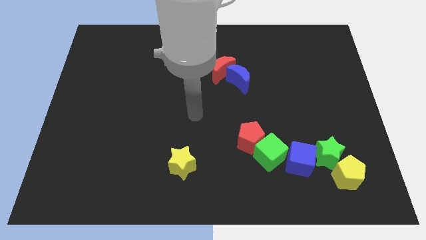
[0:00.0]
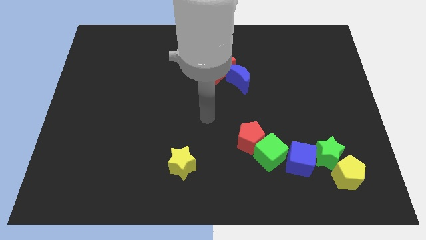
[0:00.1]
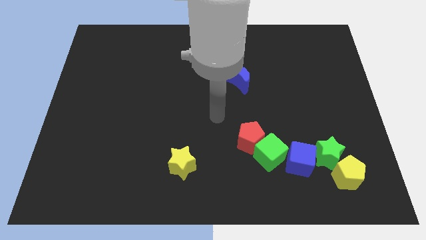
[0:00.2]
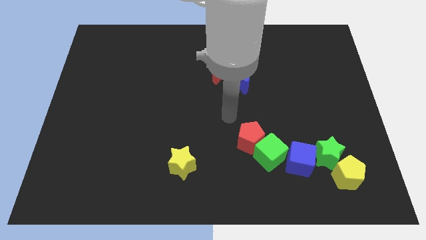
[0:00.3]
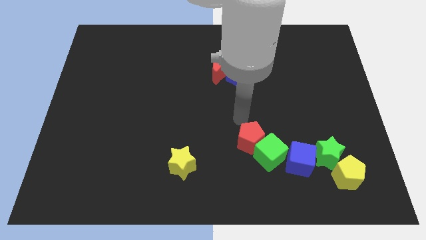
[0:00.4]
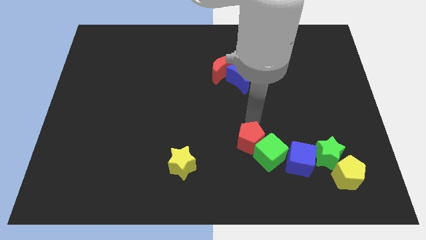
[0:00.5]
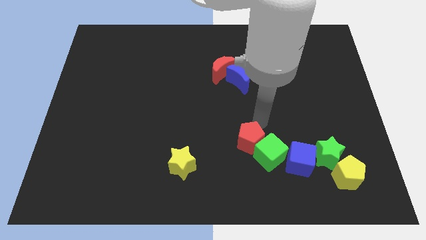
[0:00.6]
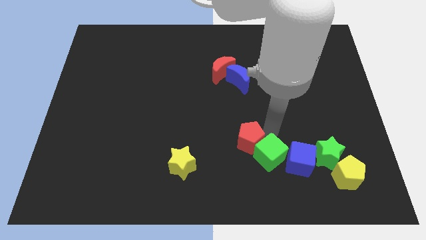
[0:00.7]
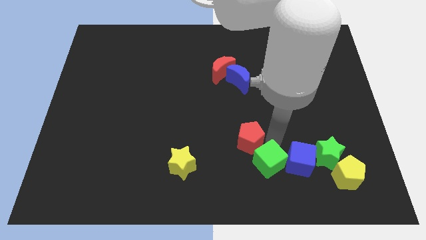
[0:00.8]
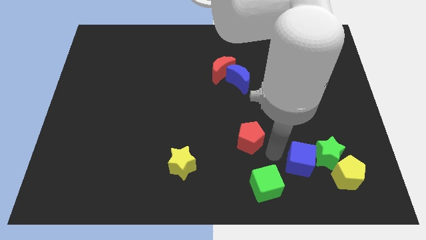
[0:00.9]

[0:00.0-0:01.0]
pull the red pentagon apart from the green cube

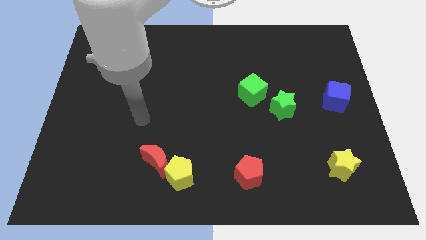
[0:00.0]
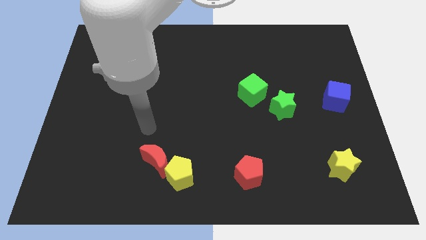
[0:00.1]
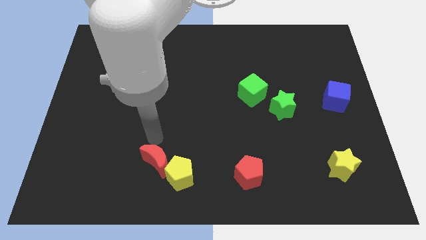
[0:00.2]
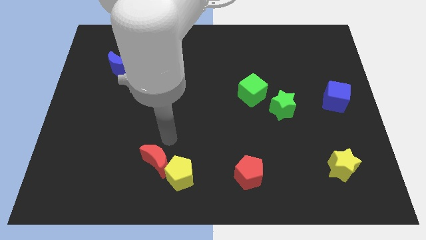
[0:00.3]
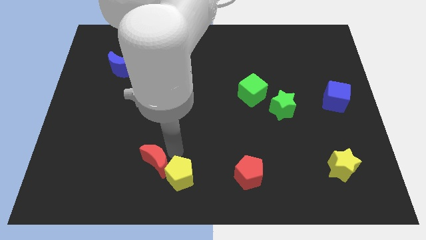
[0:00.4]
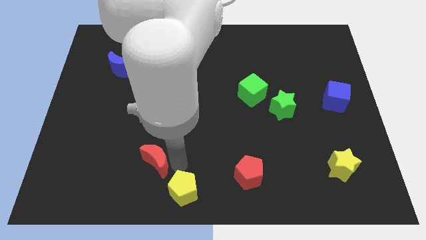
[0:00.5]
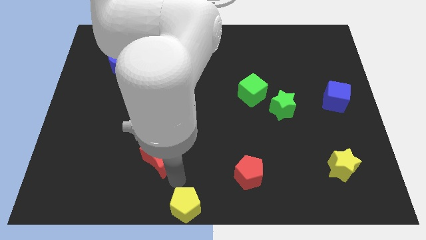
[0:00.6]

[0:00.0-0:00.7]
separate the red moon from the yellow pentagon

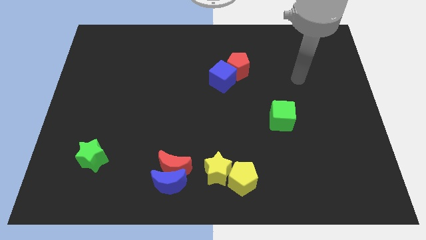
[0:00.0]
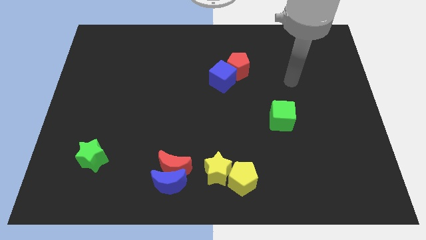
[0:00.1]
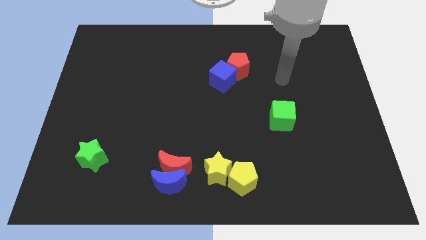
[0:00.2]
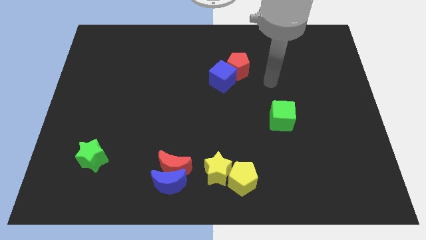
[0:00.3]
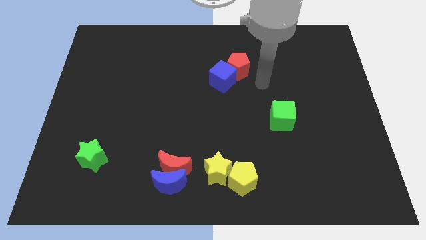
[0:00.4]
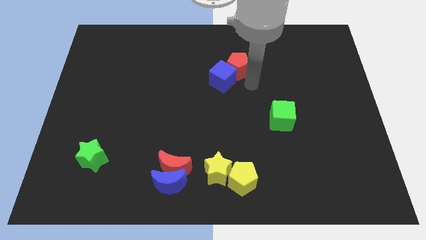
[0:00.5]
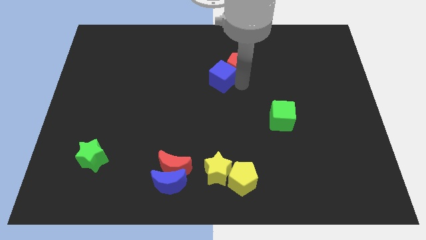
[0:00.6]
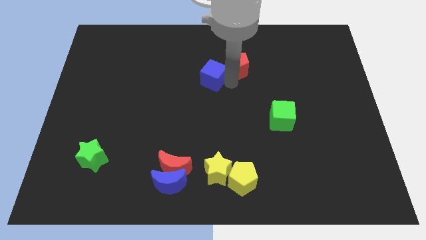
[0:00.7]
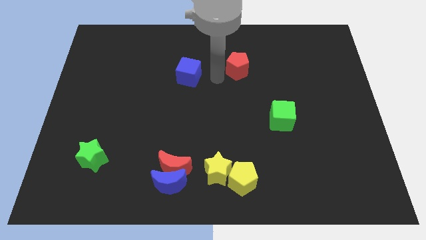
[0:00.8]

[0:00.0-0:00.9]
move the red pentagon away from the blue cube

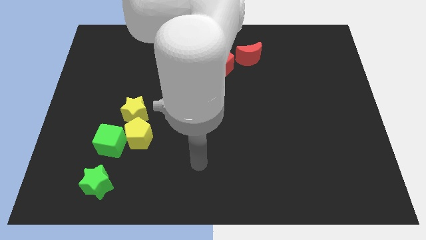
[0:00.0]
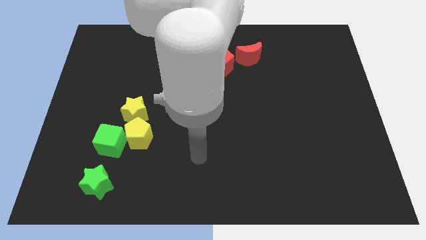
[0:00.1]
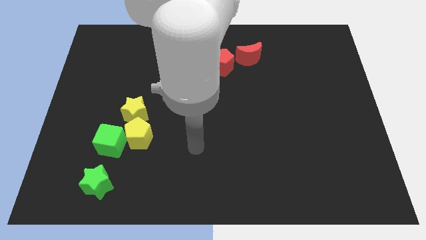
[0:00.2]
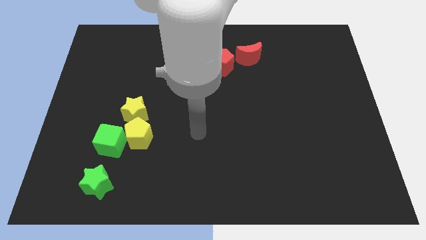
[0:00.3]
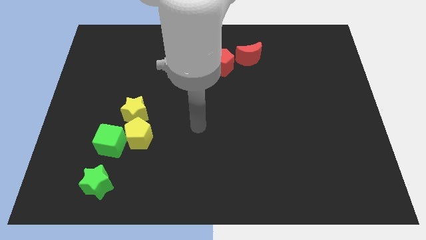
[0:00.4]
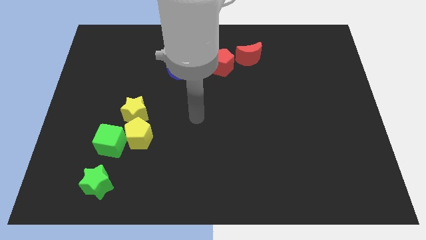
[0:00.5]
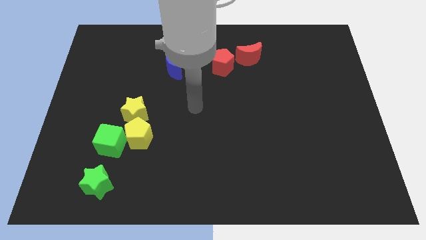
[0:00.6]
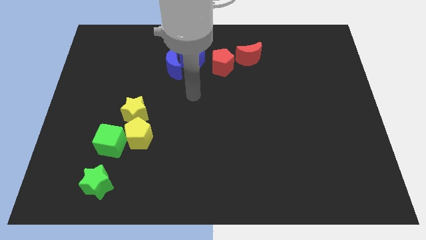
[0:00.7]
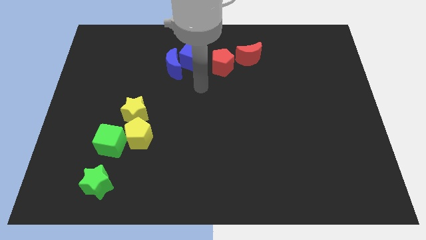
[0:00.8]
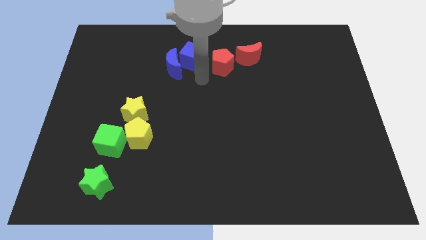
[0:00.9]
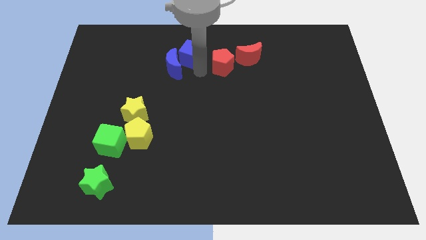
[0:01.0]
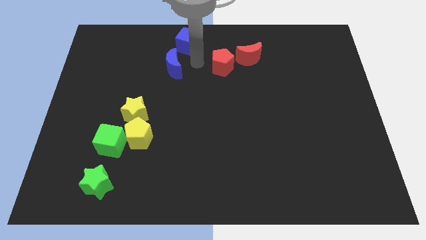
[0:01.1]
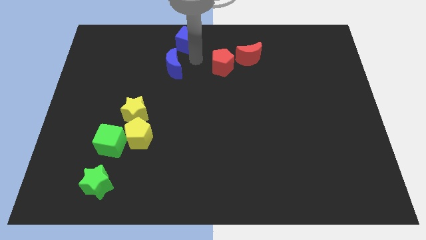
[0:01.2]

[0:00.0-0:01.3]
separate the blue moon from the blue cube

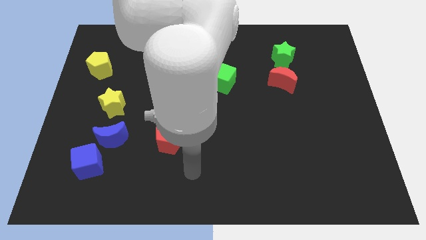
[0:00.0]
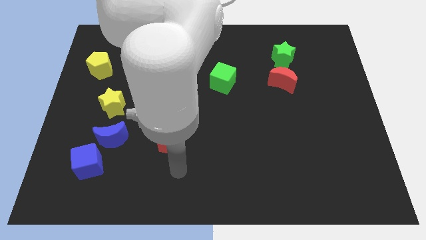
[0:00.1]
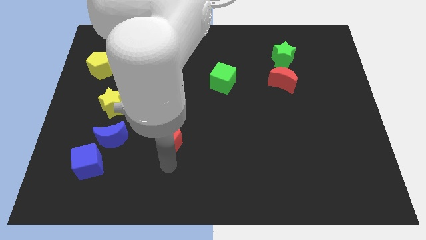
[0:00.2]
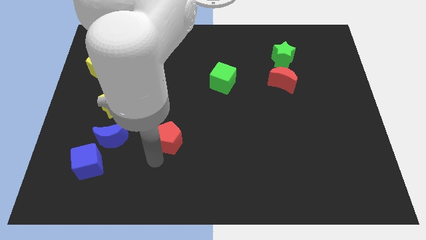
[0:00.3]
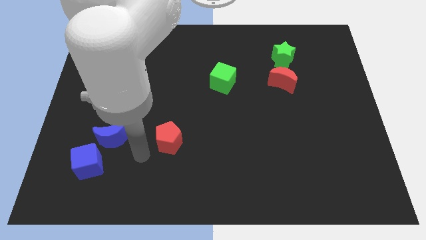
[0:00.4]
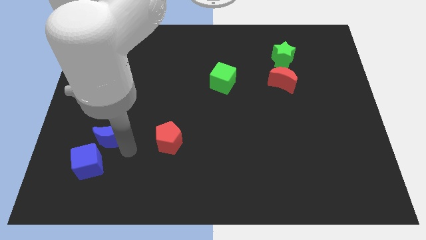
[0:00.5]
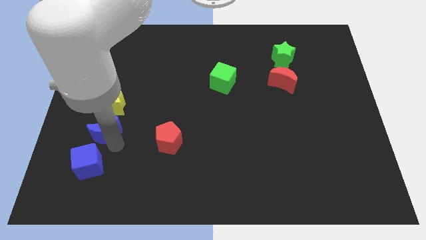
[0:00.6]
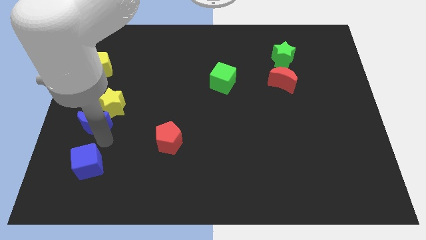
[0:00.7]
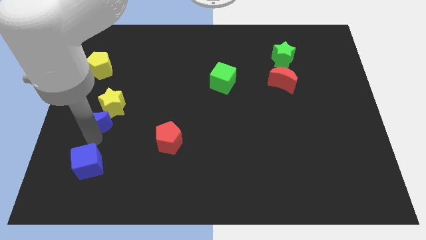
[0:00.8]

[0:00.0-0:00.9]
move the blue cube away from the blue moon

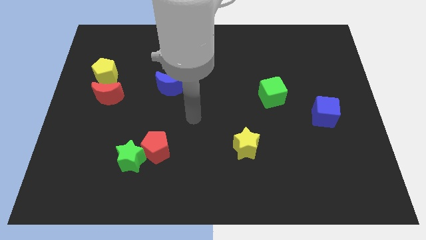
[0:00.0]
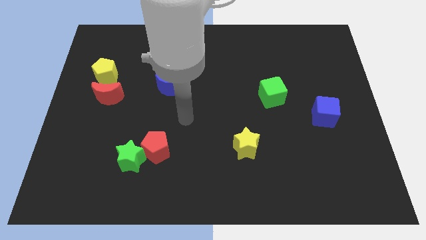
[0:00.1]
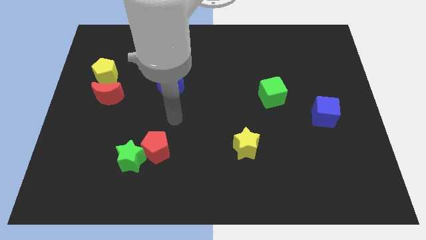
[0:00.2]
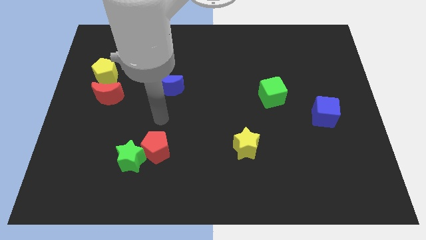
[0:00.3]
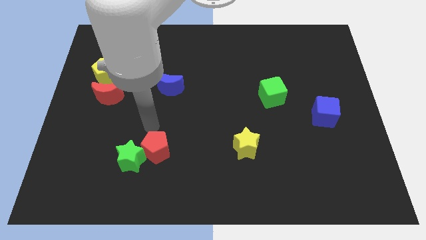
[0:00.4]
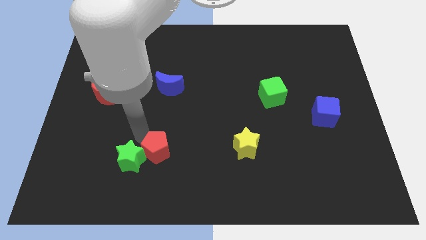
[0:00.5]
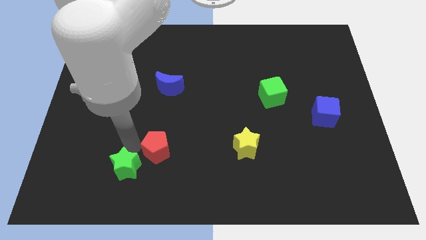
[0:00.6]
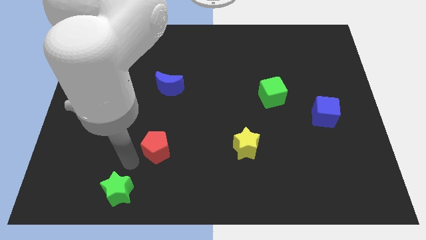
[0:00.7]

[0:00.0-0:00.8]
move the red pentagon away from the green star

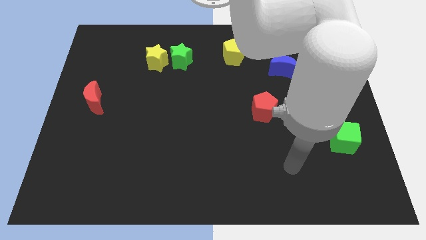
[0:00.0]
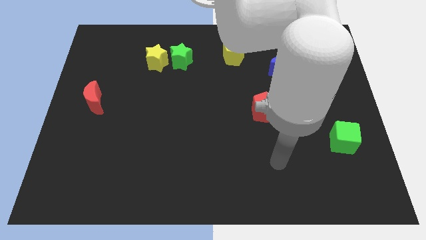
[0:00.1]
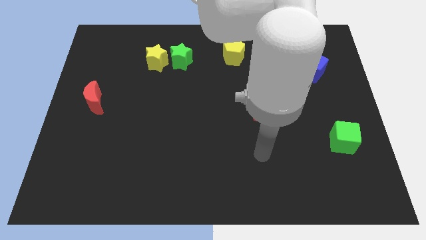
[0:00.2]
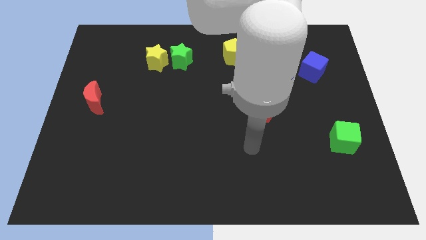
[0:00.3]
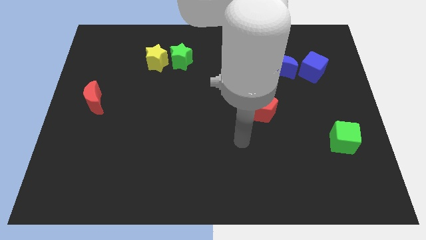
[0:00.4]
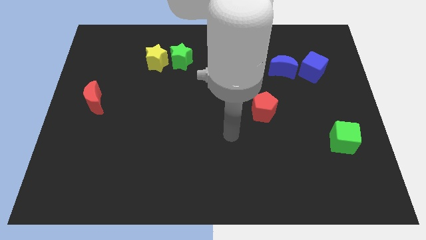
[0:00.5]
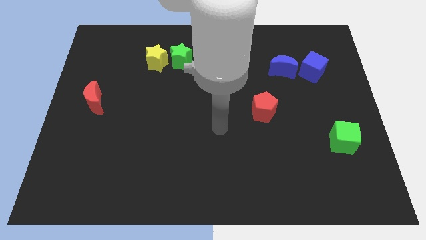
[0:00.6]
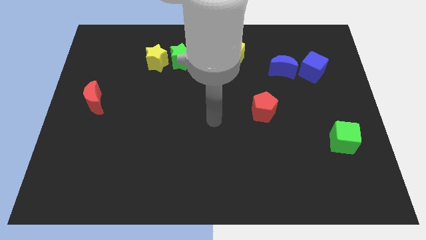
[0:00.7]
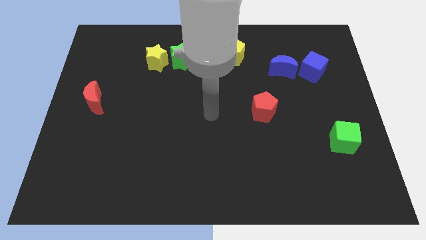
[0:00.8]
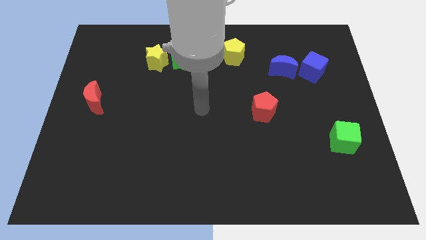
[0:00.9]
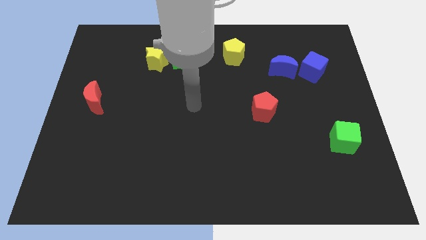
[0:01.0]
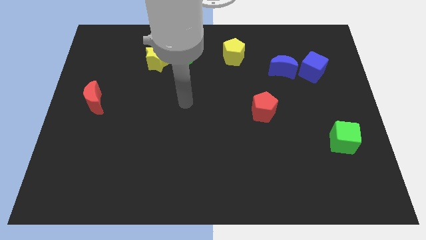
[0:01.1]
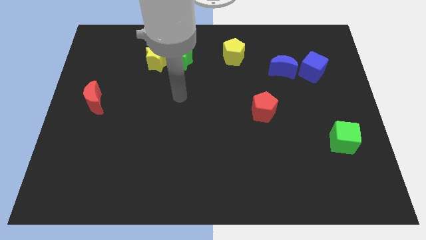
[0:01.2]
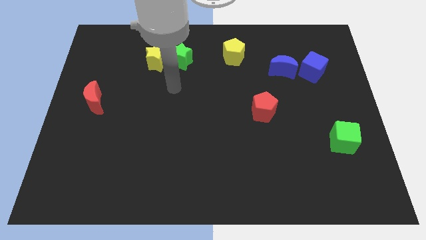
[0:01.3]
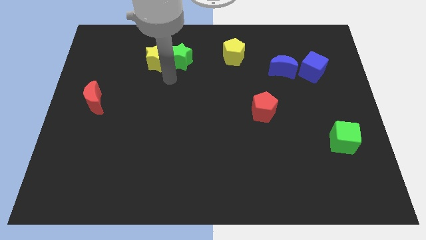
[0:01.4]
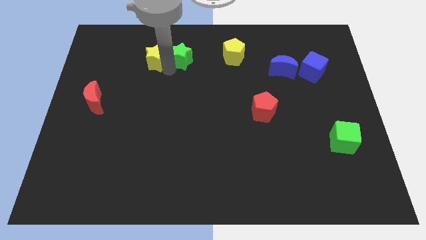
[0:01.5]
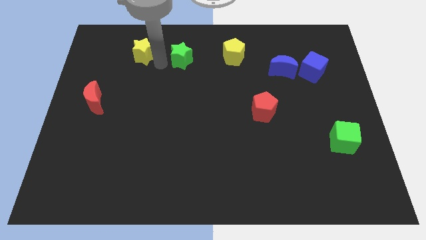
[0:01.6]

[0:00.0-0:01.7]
pull the green star apart from the yellow star

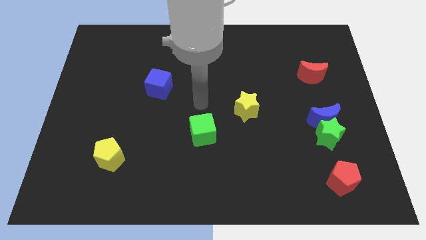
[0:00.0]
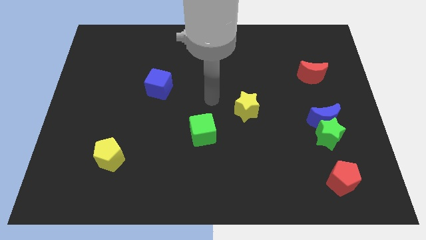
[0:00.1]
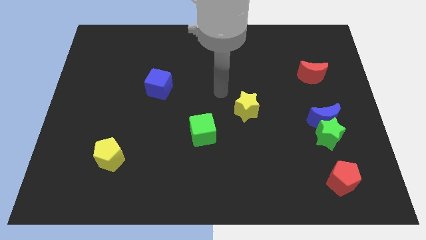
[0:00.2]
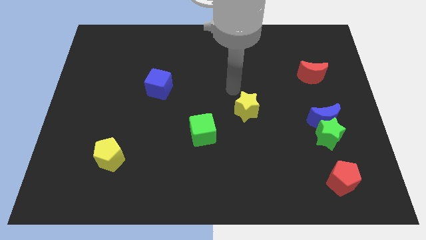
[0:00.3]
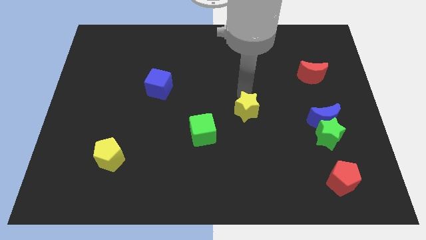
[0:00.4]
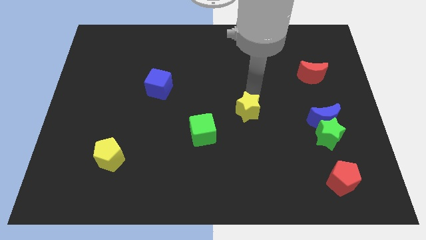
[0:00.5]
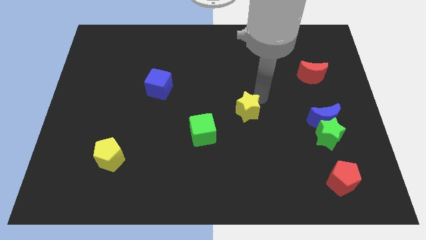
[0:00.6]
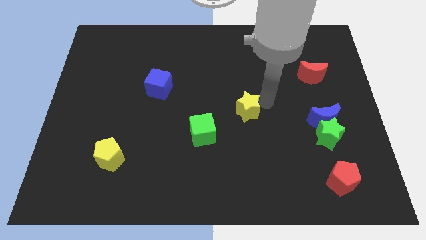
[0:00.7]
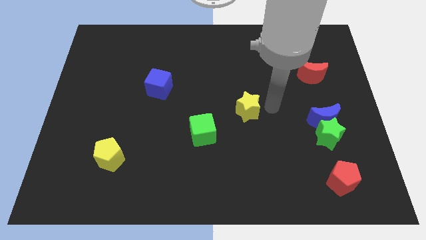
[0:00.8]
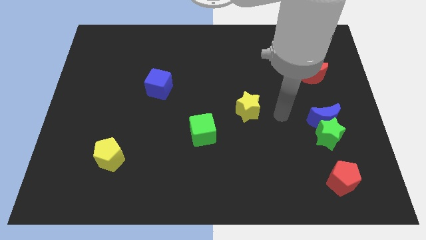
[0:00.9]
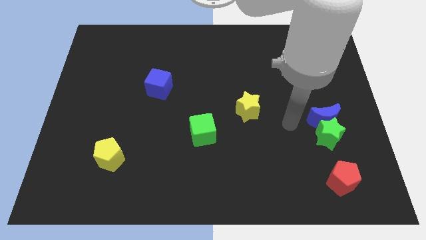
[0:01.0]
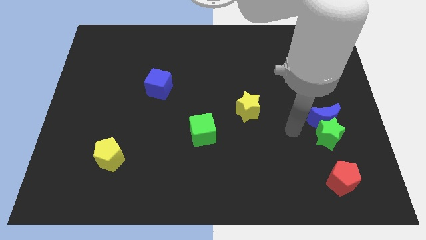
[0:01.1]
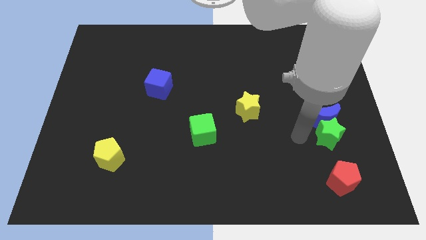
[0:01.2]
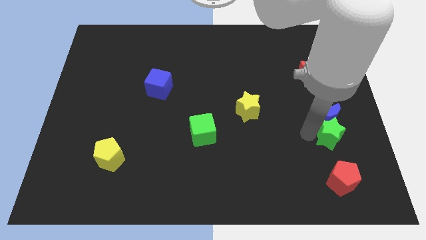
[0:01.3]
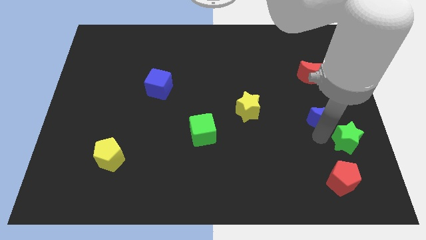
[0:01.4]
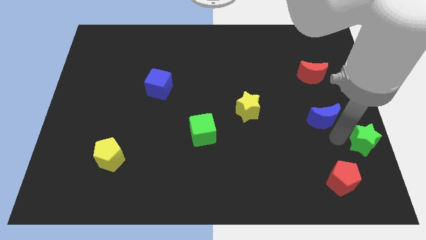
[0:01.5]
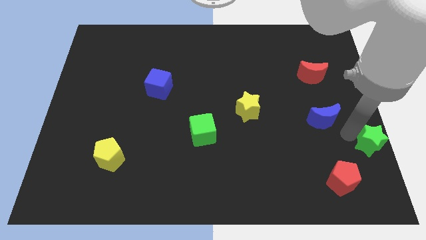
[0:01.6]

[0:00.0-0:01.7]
separate the blue moon from the green star

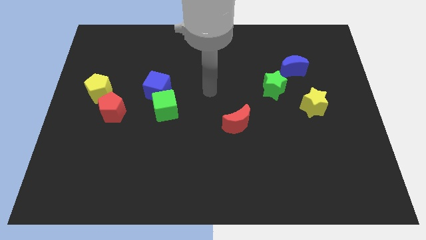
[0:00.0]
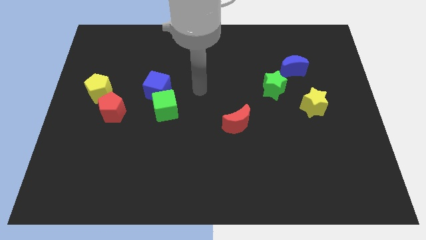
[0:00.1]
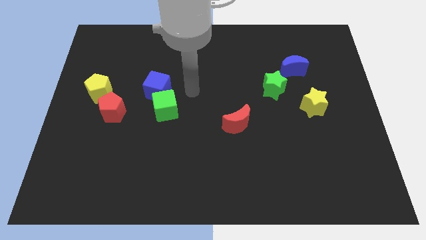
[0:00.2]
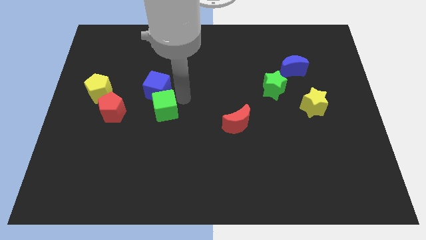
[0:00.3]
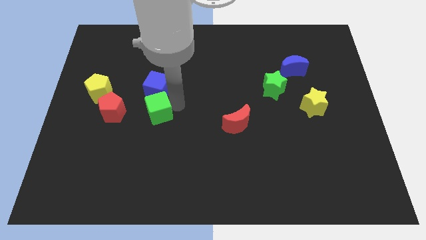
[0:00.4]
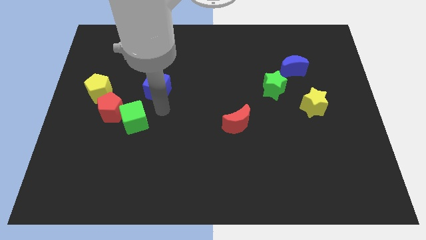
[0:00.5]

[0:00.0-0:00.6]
pull the blue cube apart from the green cube
